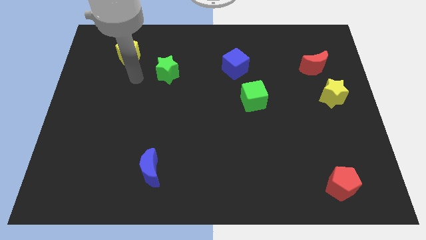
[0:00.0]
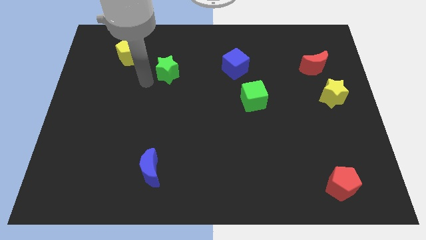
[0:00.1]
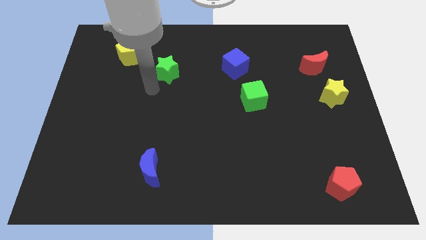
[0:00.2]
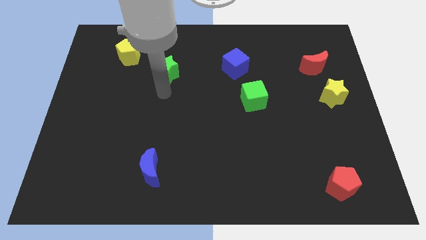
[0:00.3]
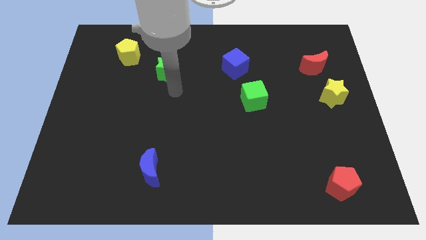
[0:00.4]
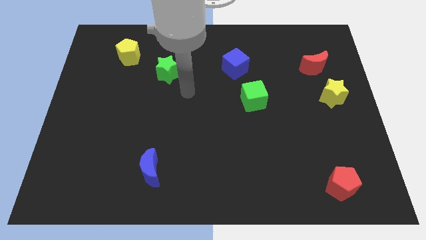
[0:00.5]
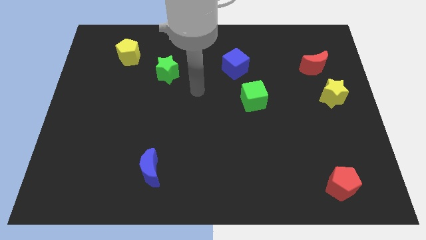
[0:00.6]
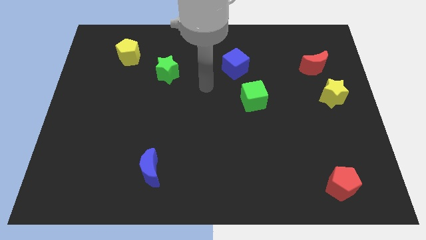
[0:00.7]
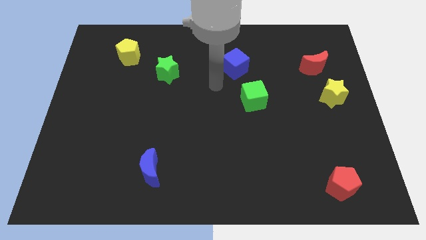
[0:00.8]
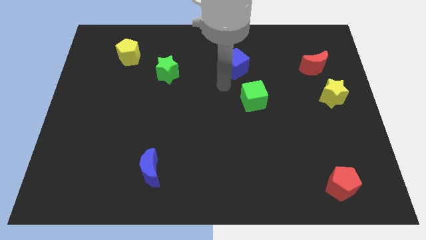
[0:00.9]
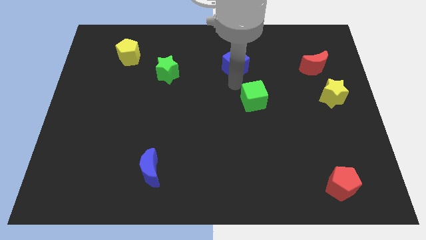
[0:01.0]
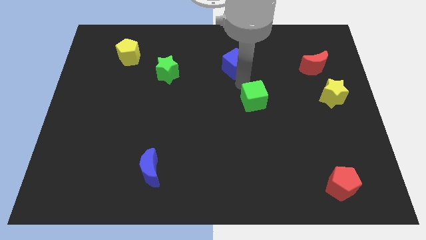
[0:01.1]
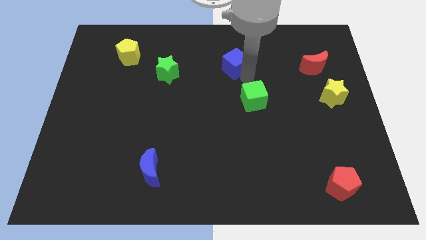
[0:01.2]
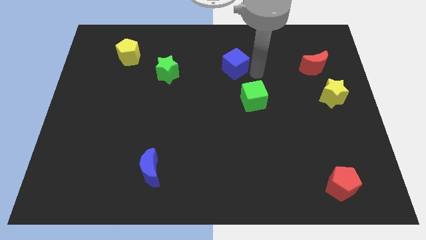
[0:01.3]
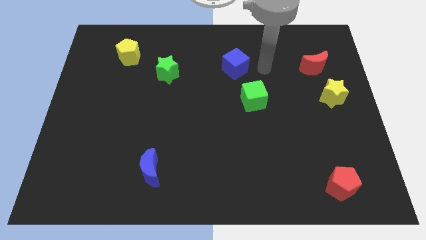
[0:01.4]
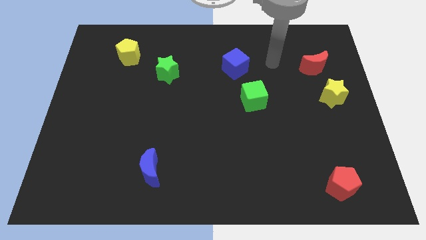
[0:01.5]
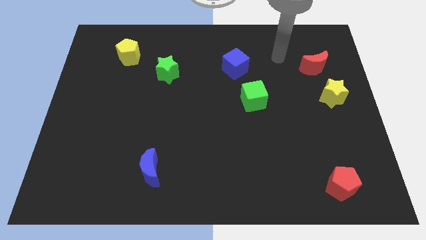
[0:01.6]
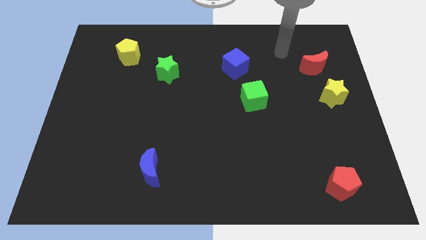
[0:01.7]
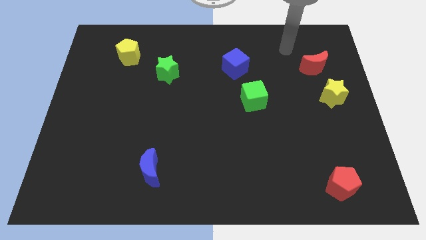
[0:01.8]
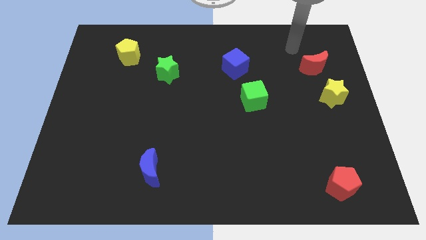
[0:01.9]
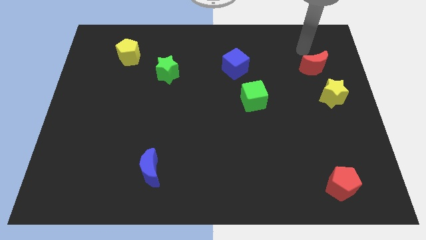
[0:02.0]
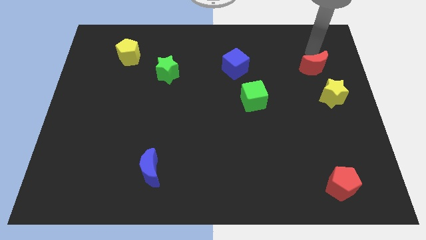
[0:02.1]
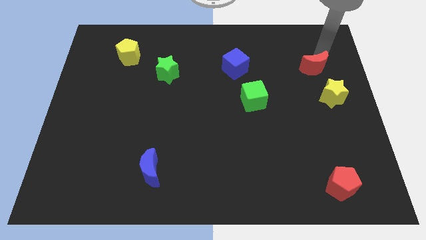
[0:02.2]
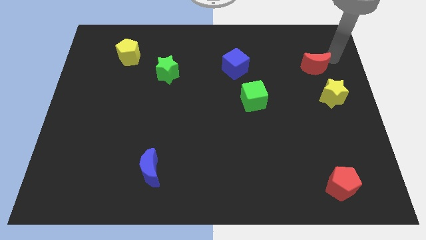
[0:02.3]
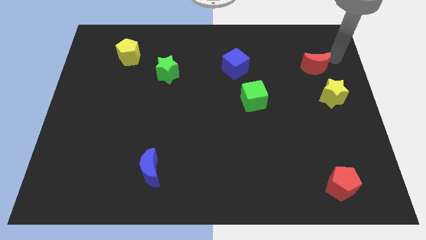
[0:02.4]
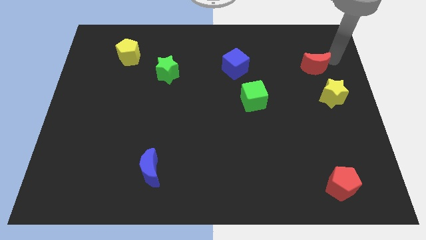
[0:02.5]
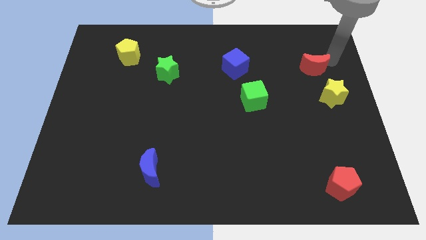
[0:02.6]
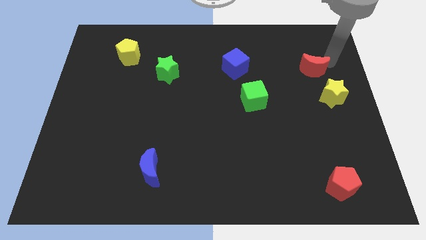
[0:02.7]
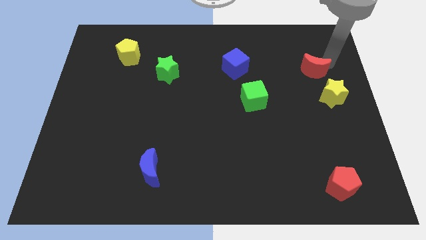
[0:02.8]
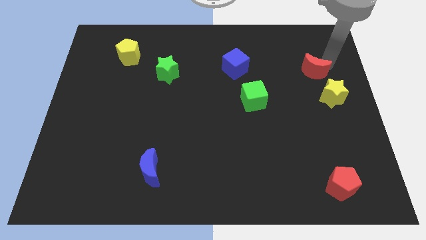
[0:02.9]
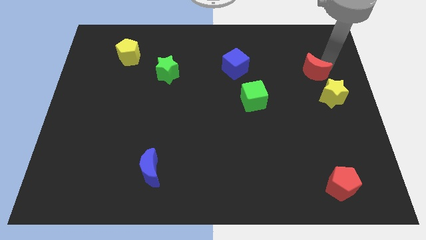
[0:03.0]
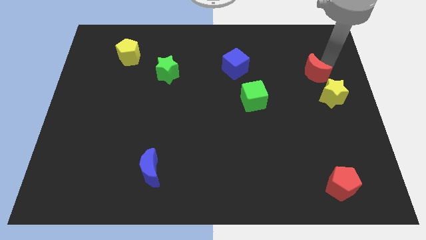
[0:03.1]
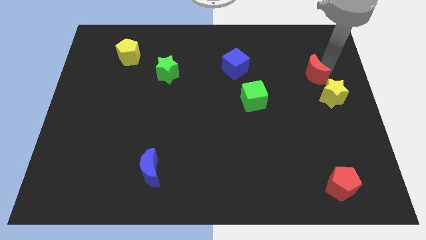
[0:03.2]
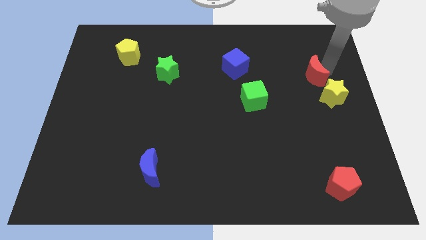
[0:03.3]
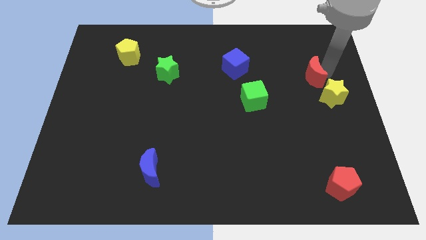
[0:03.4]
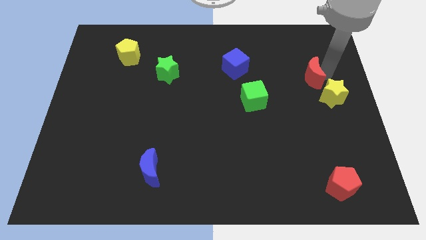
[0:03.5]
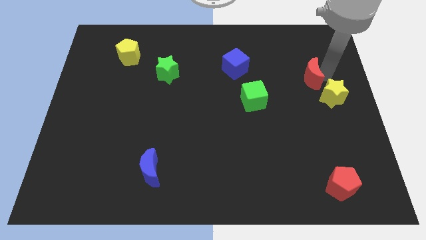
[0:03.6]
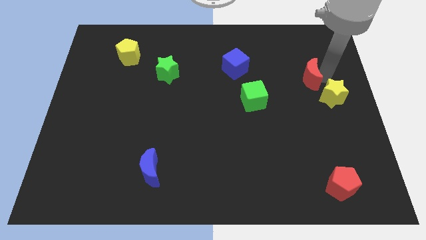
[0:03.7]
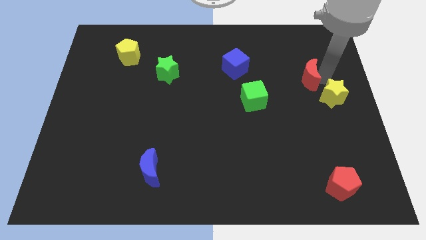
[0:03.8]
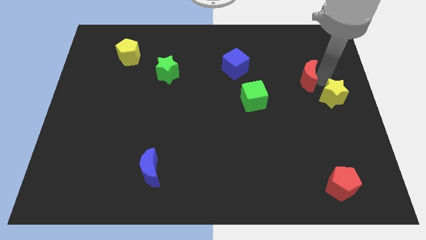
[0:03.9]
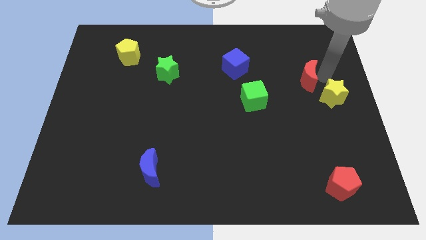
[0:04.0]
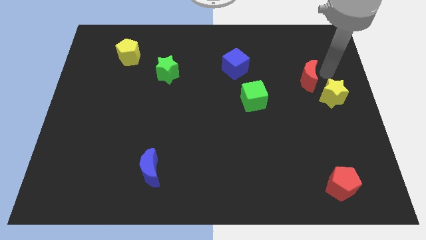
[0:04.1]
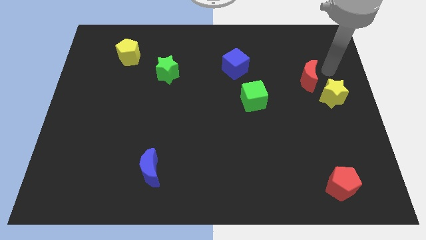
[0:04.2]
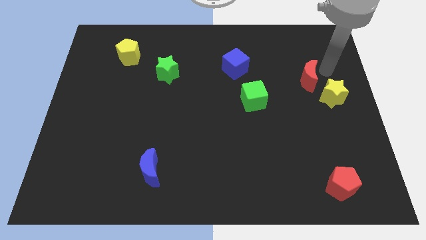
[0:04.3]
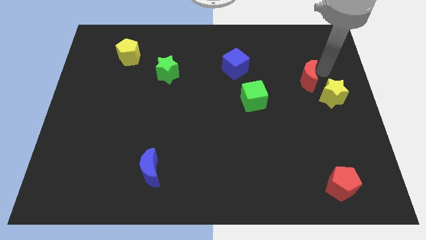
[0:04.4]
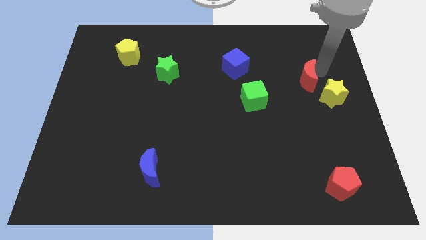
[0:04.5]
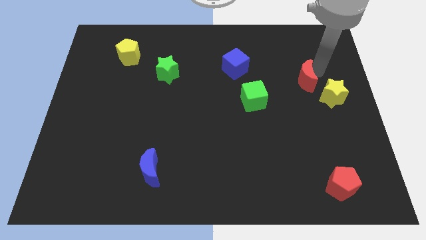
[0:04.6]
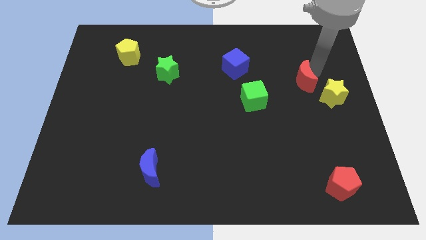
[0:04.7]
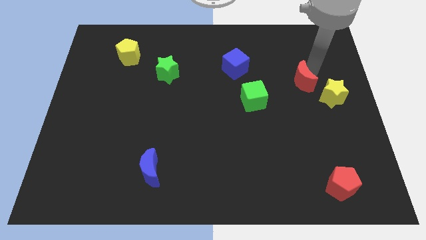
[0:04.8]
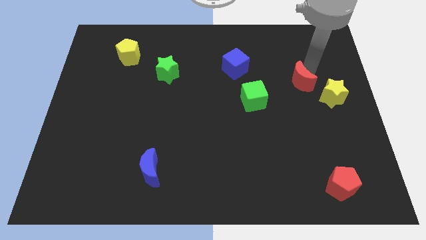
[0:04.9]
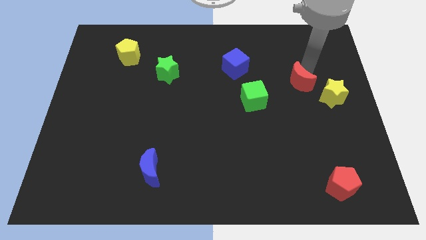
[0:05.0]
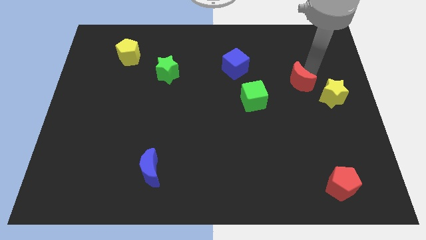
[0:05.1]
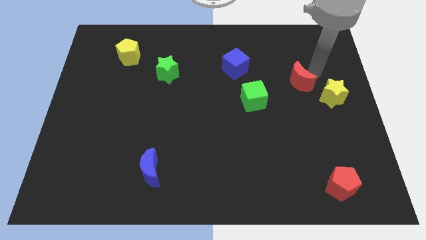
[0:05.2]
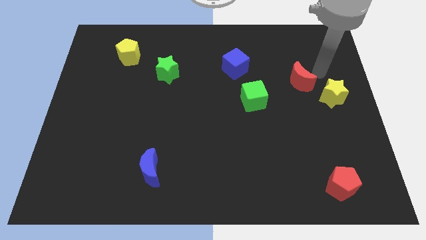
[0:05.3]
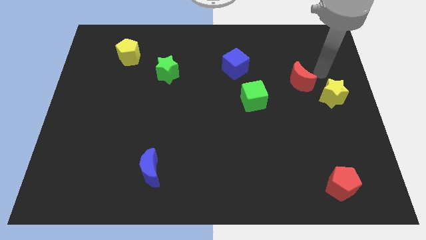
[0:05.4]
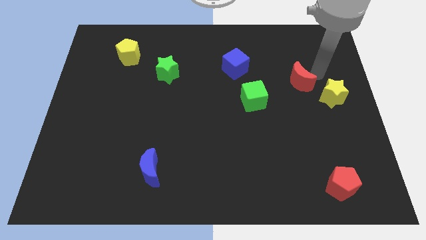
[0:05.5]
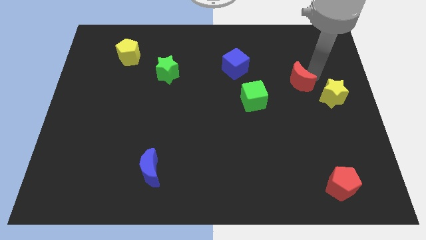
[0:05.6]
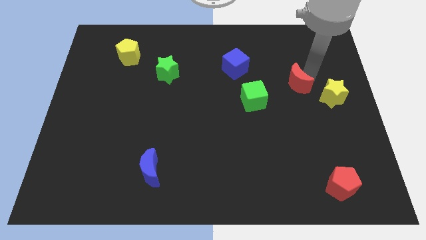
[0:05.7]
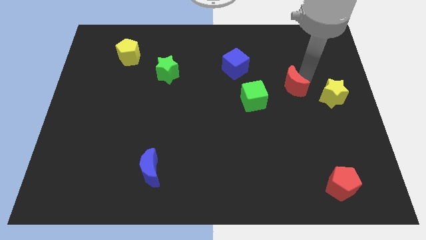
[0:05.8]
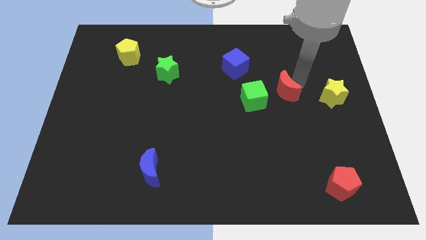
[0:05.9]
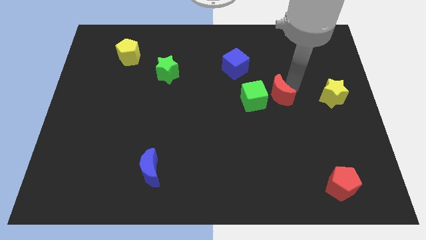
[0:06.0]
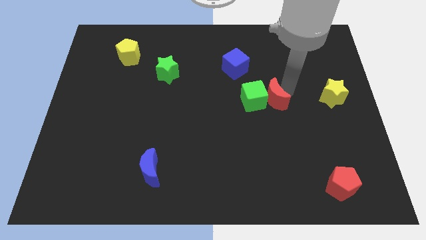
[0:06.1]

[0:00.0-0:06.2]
slide the red moon close to the green cube

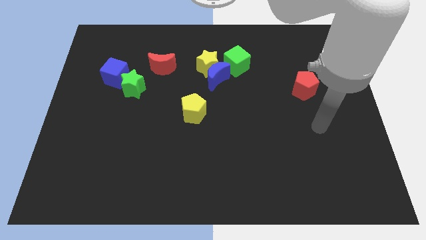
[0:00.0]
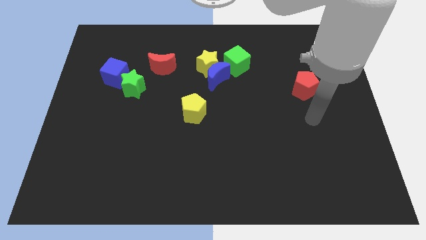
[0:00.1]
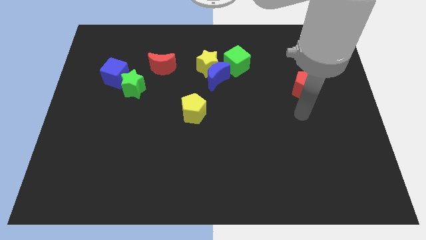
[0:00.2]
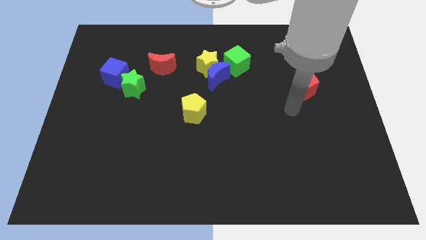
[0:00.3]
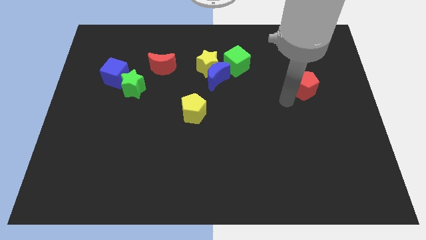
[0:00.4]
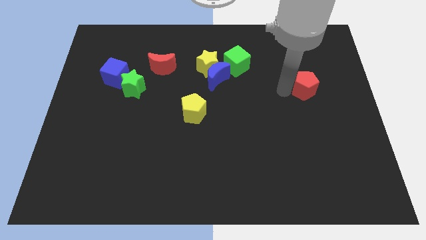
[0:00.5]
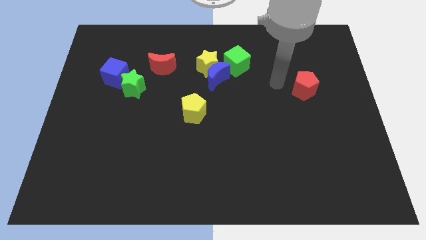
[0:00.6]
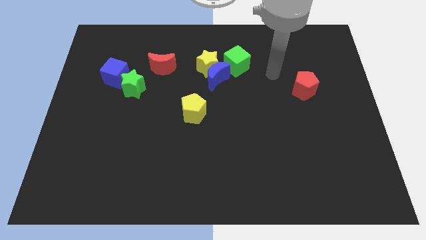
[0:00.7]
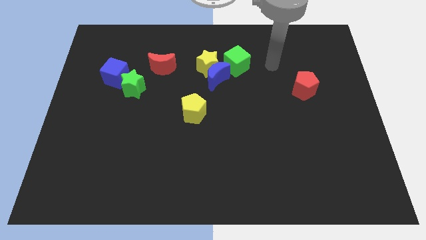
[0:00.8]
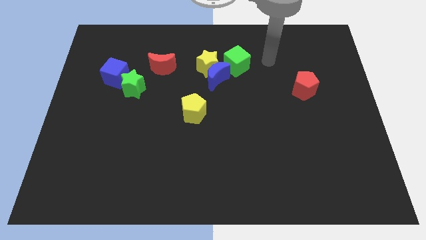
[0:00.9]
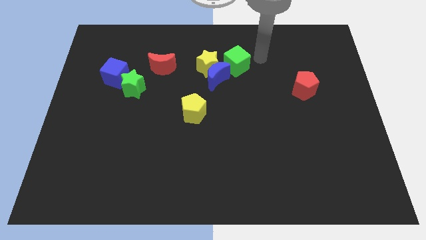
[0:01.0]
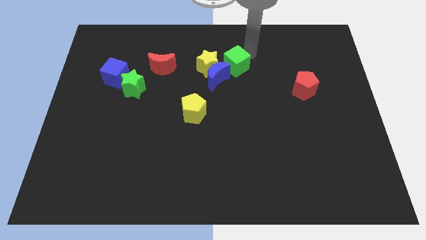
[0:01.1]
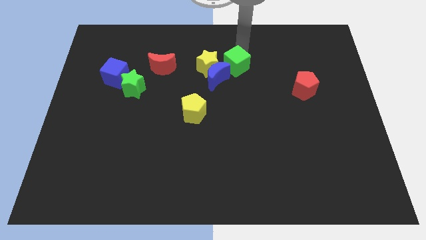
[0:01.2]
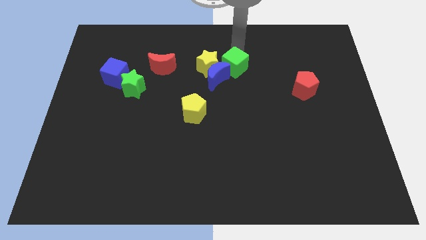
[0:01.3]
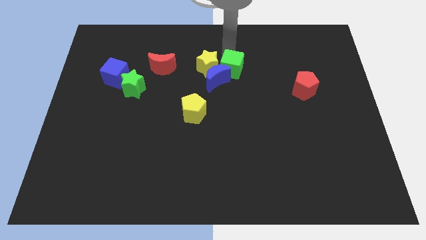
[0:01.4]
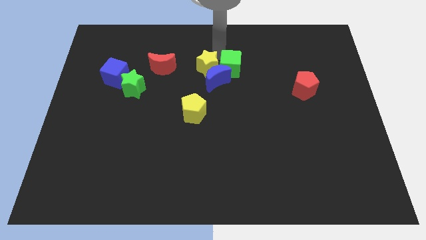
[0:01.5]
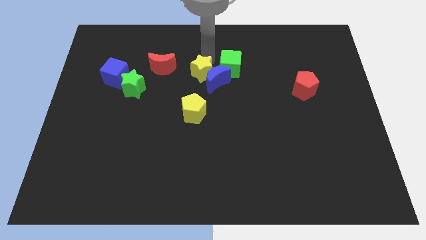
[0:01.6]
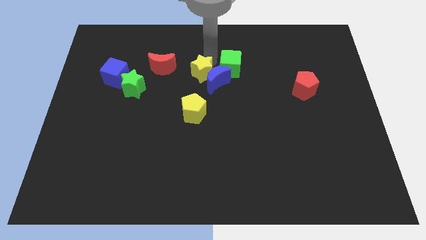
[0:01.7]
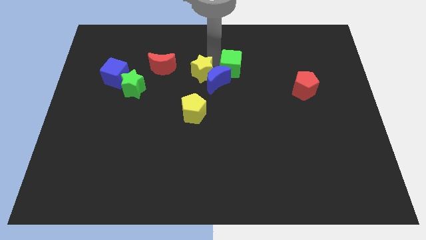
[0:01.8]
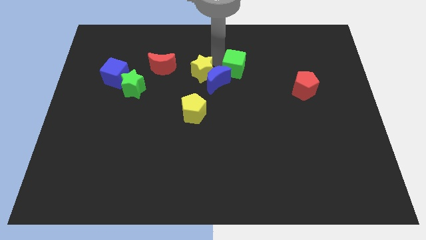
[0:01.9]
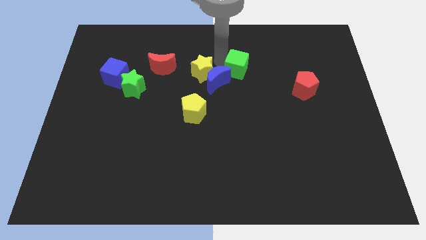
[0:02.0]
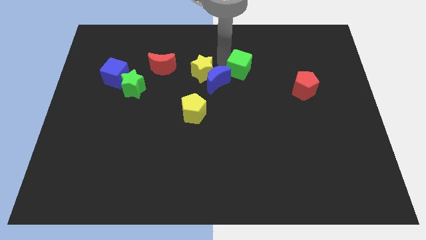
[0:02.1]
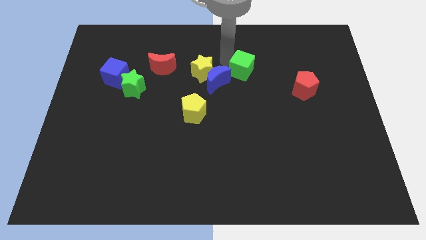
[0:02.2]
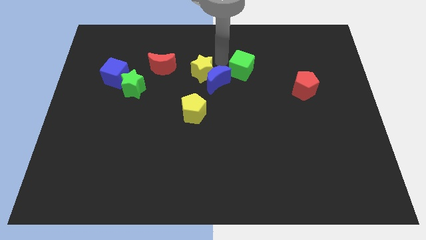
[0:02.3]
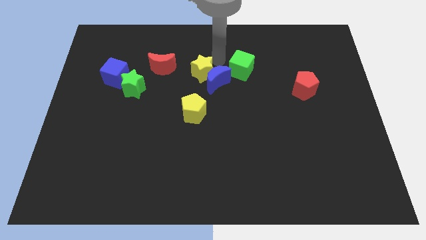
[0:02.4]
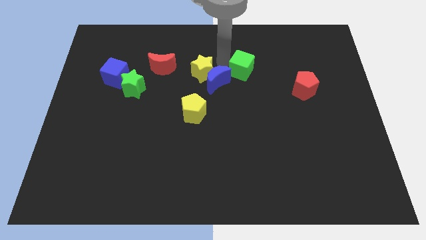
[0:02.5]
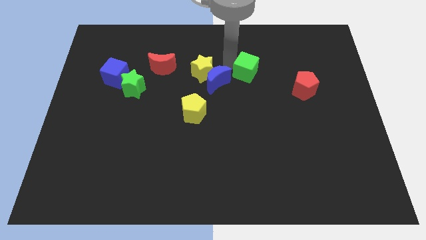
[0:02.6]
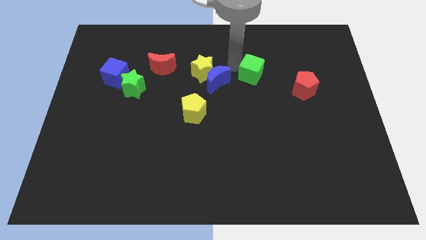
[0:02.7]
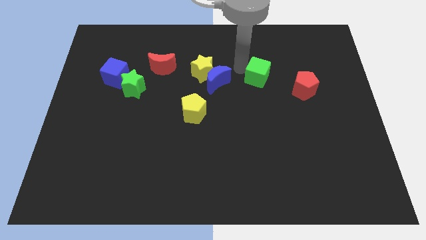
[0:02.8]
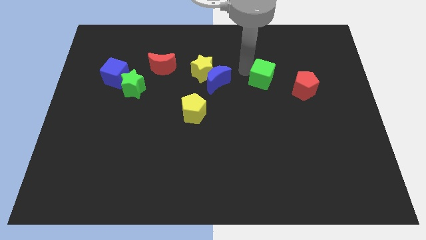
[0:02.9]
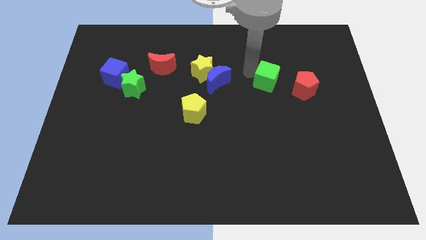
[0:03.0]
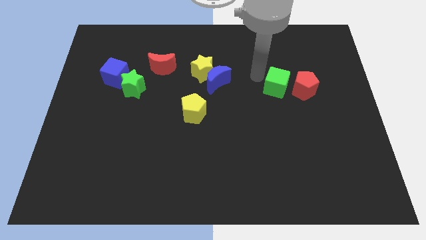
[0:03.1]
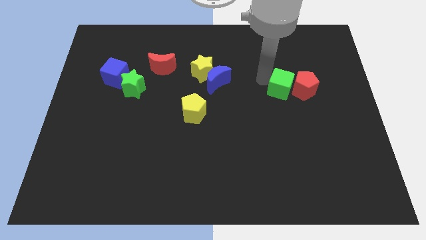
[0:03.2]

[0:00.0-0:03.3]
move the green cube to the red pentagon
